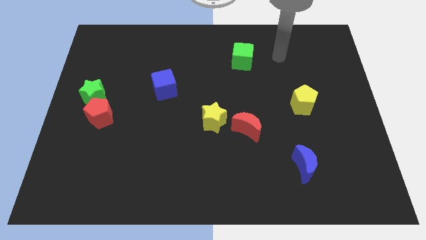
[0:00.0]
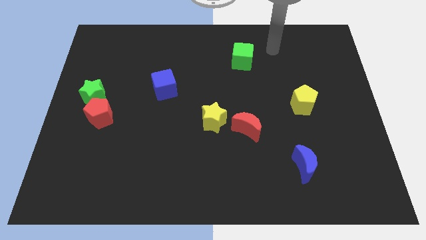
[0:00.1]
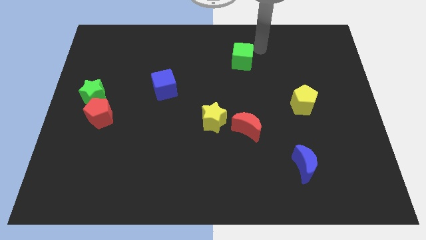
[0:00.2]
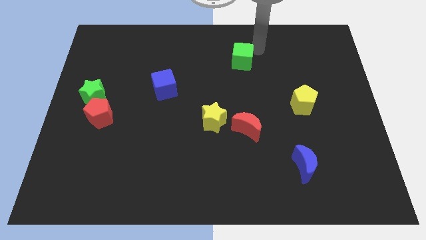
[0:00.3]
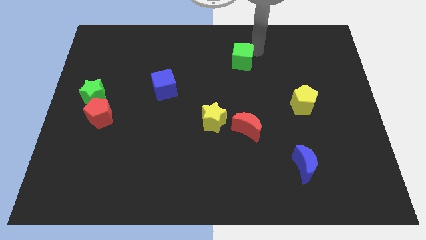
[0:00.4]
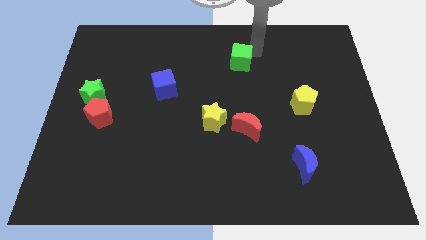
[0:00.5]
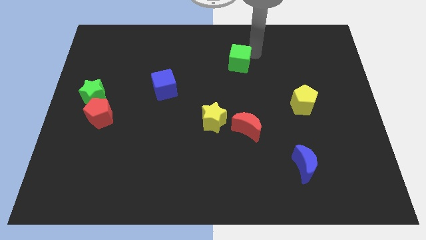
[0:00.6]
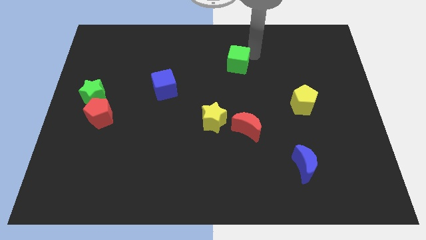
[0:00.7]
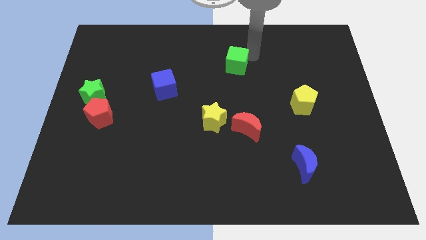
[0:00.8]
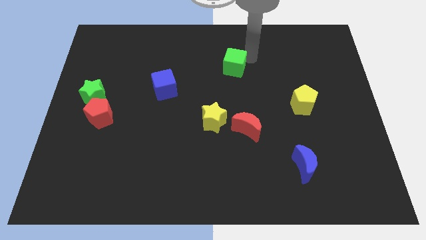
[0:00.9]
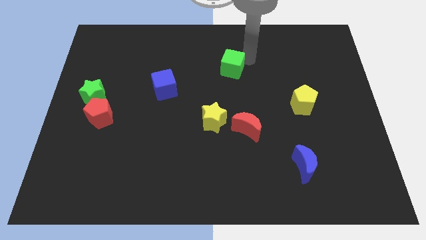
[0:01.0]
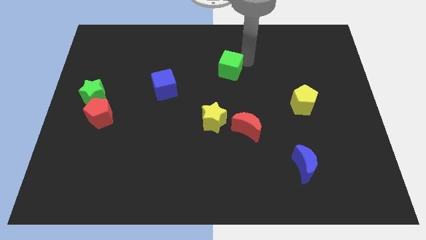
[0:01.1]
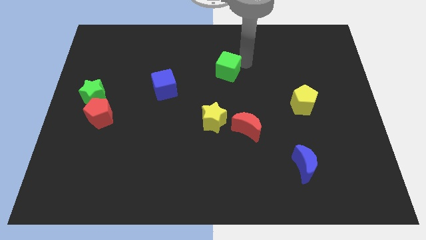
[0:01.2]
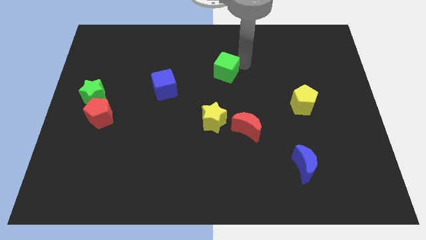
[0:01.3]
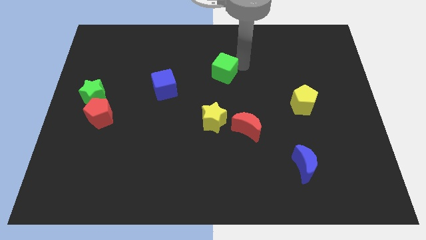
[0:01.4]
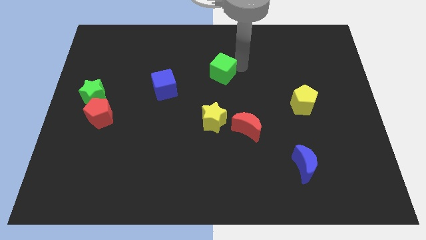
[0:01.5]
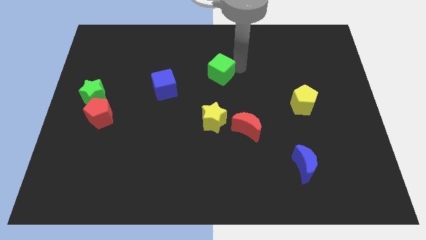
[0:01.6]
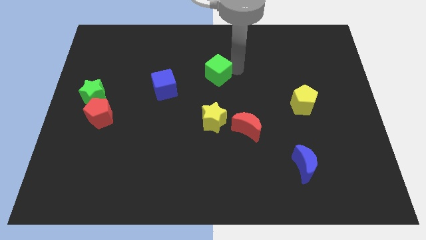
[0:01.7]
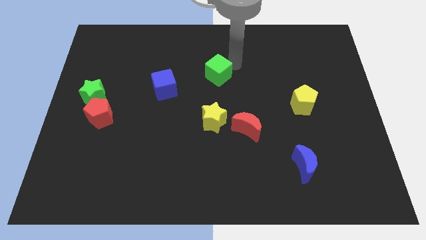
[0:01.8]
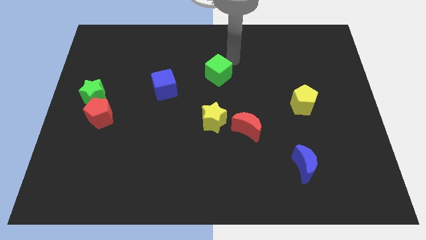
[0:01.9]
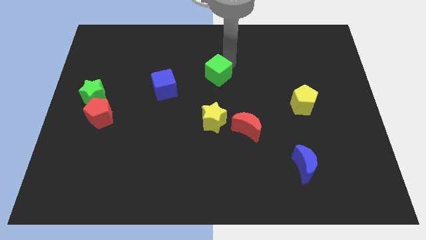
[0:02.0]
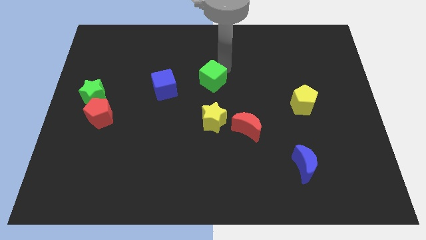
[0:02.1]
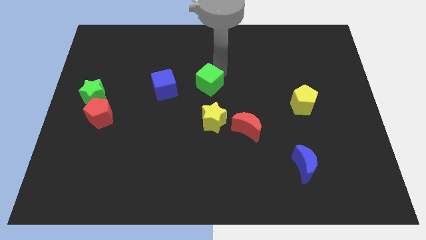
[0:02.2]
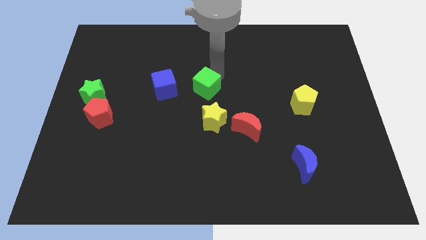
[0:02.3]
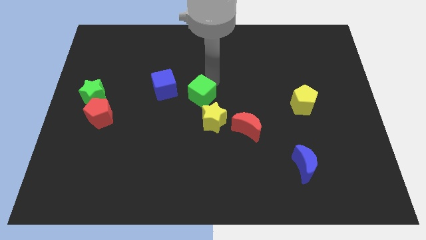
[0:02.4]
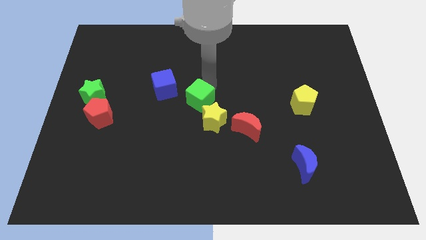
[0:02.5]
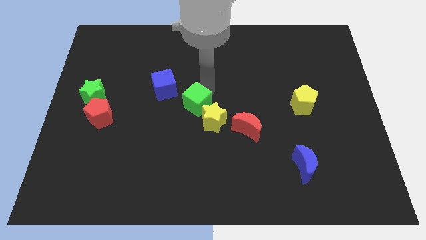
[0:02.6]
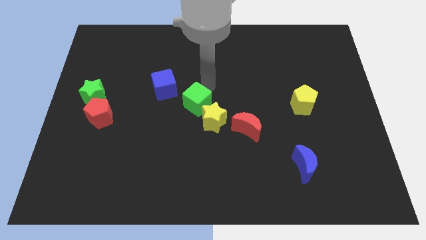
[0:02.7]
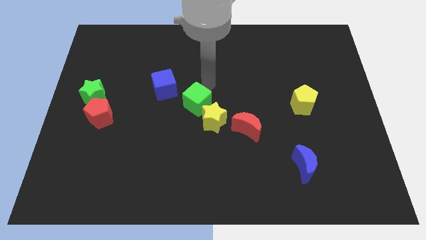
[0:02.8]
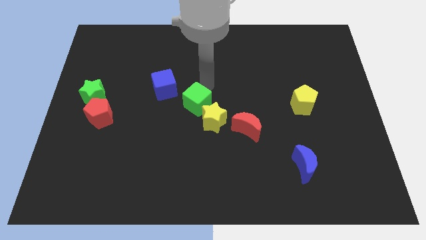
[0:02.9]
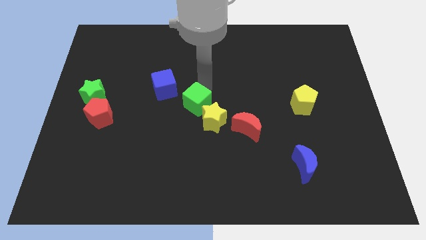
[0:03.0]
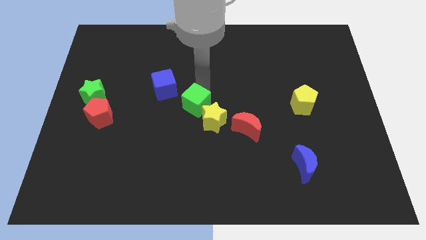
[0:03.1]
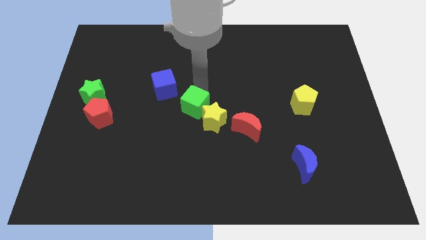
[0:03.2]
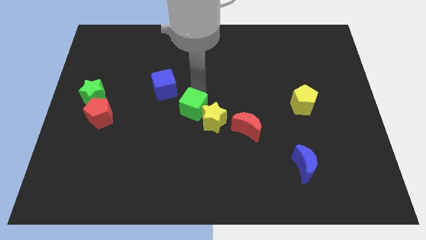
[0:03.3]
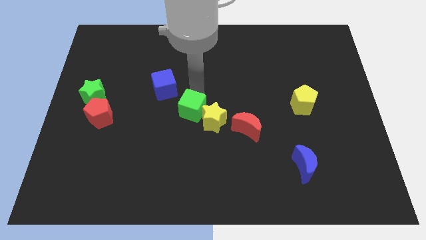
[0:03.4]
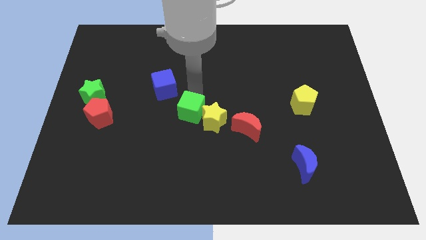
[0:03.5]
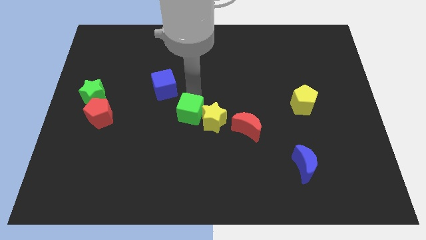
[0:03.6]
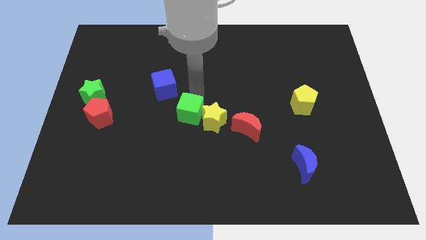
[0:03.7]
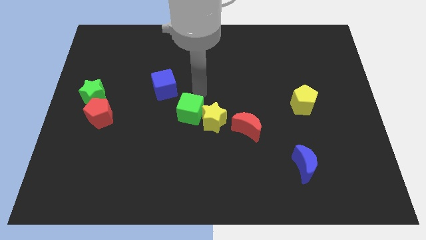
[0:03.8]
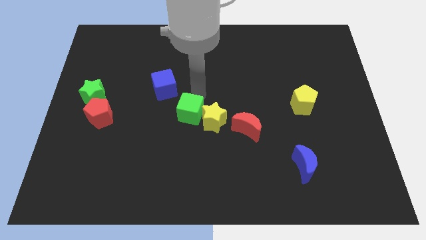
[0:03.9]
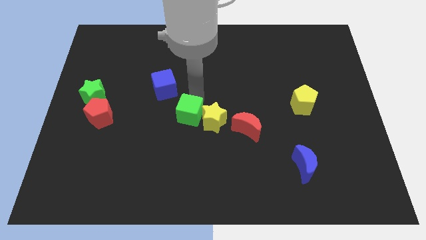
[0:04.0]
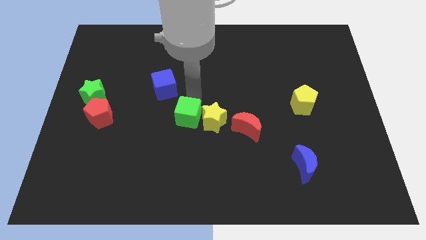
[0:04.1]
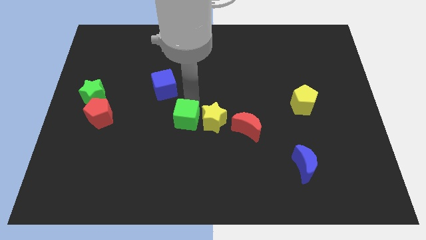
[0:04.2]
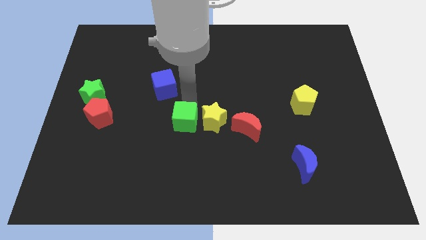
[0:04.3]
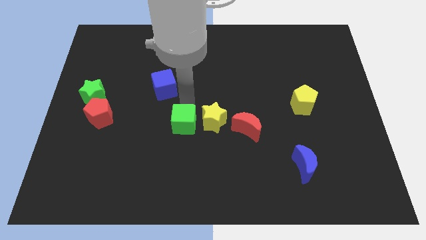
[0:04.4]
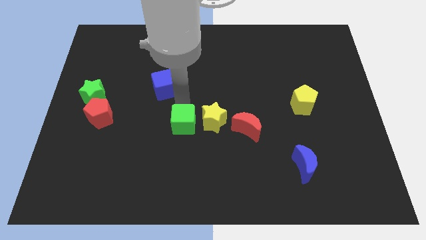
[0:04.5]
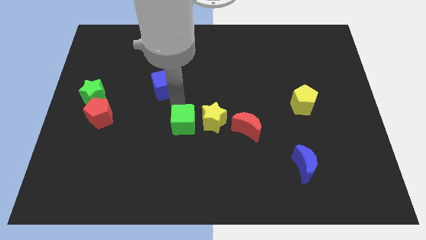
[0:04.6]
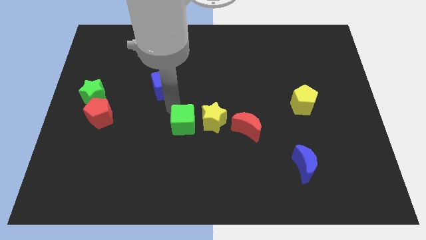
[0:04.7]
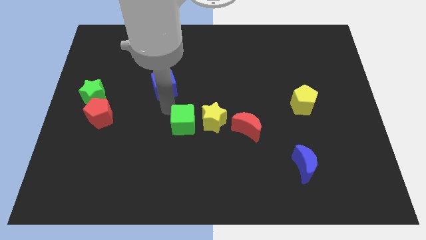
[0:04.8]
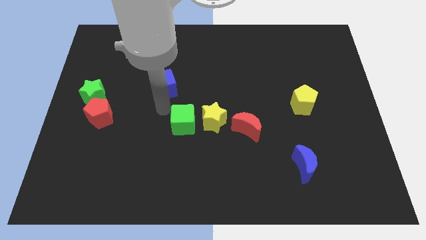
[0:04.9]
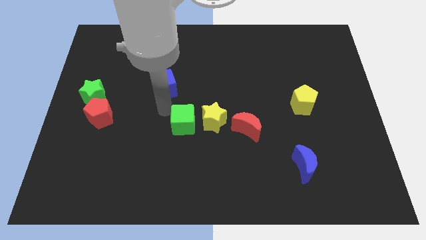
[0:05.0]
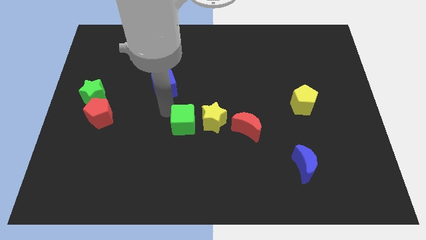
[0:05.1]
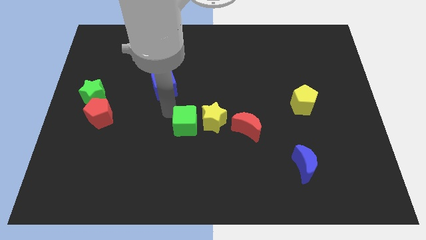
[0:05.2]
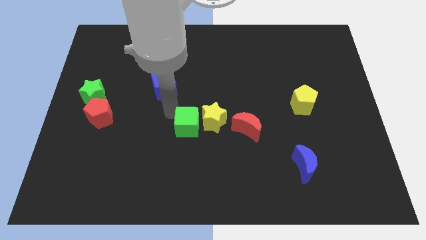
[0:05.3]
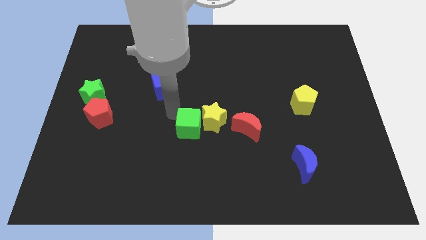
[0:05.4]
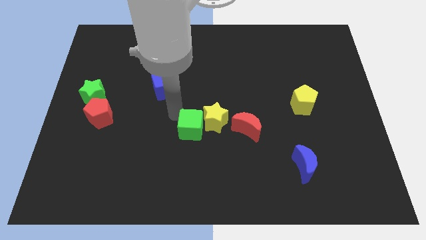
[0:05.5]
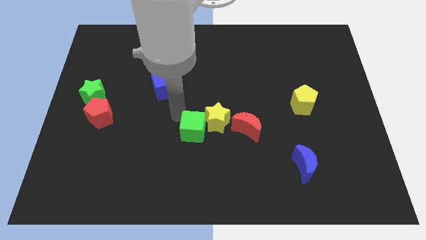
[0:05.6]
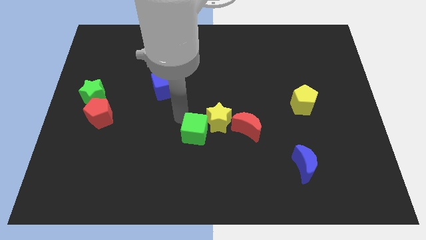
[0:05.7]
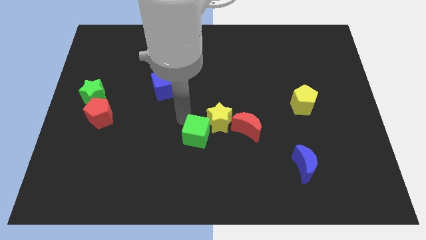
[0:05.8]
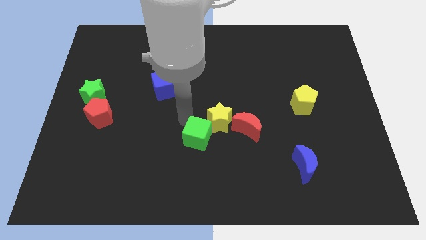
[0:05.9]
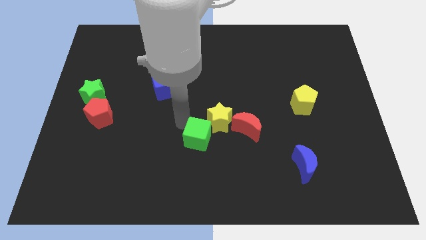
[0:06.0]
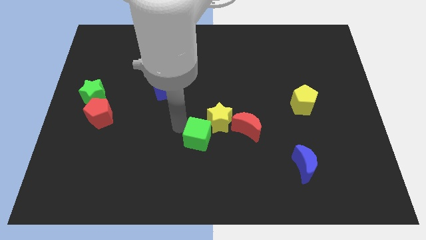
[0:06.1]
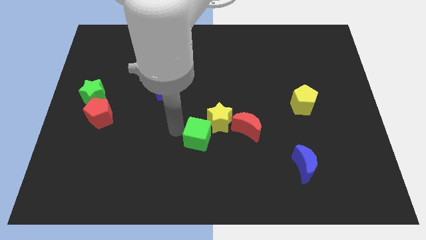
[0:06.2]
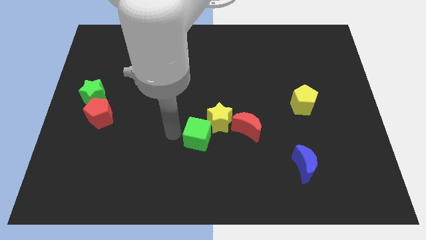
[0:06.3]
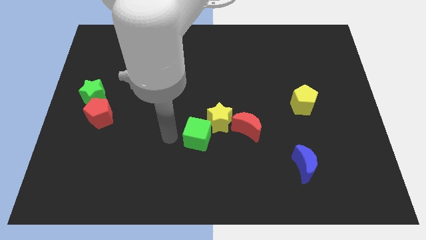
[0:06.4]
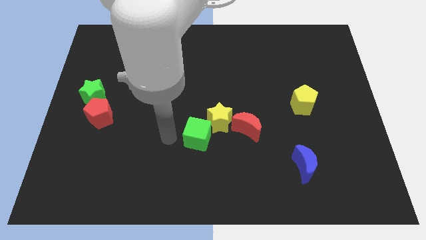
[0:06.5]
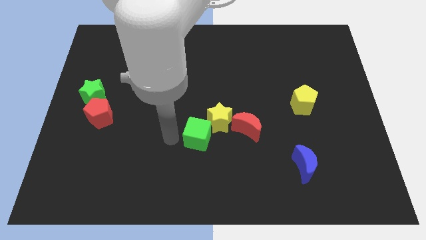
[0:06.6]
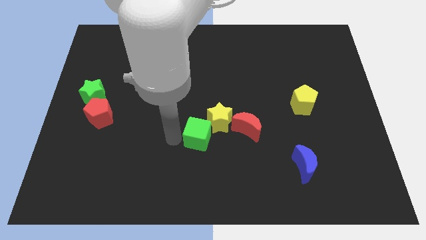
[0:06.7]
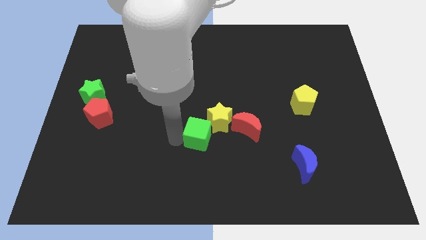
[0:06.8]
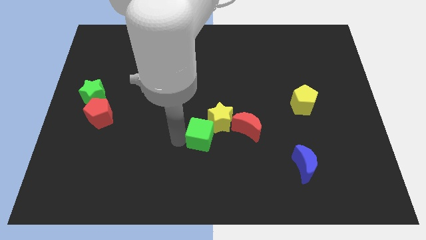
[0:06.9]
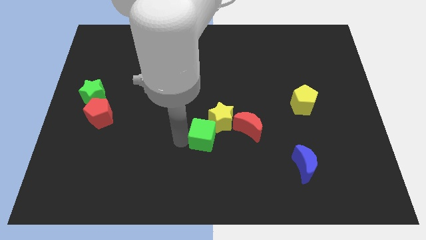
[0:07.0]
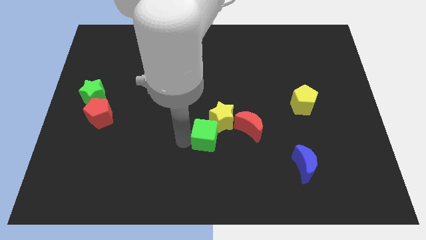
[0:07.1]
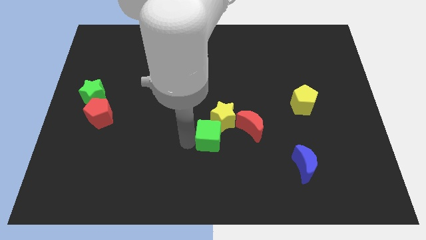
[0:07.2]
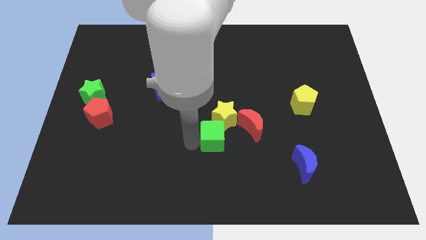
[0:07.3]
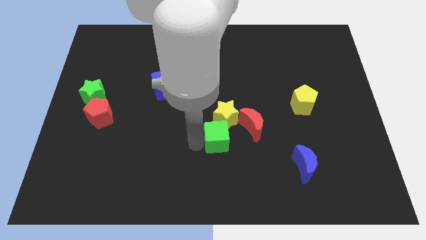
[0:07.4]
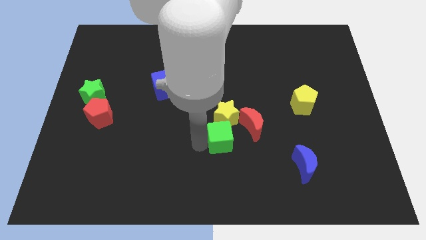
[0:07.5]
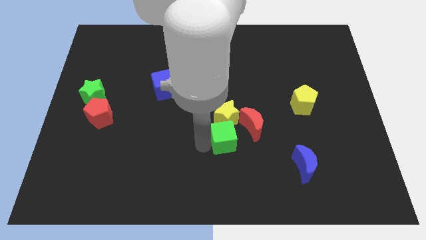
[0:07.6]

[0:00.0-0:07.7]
slide the green cube to the bottom right side of the yellow star
